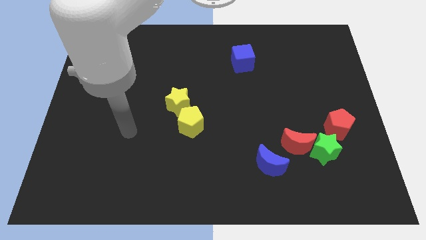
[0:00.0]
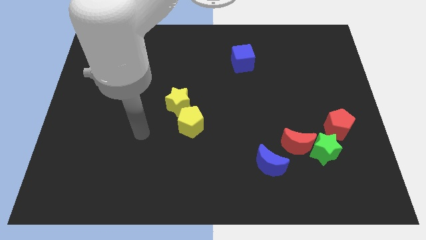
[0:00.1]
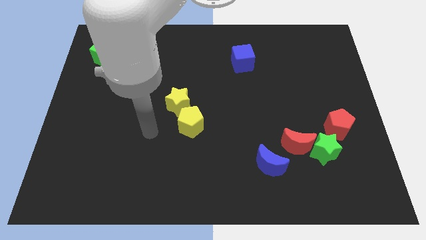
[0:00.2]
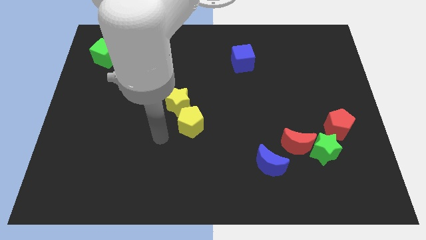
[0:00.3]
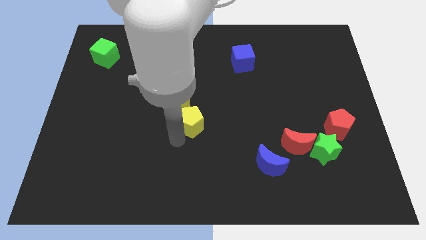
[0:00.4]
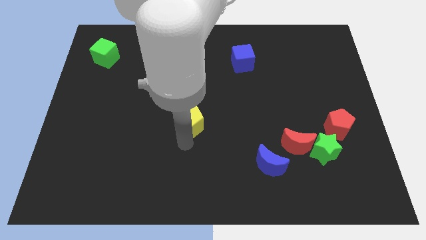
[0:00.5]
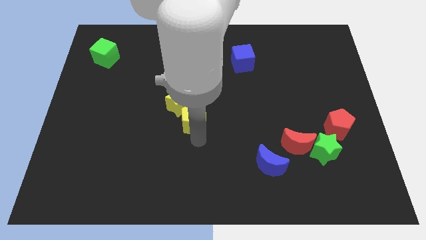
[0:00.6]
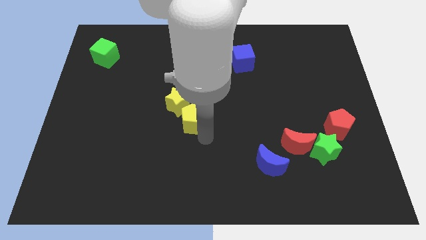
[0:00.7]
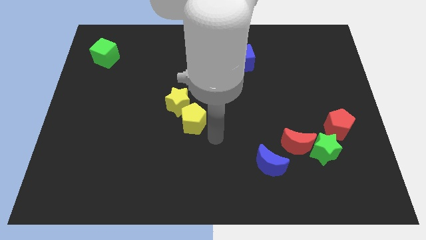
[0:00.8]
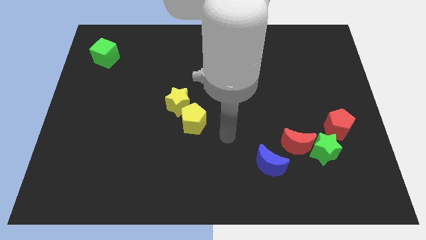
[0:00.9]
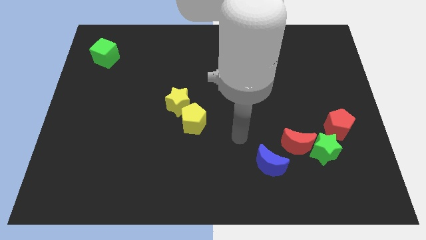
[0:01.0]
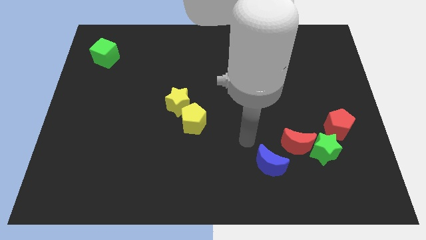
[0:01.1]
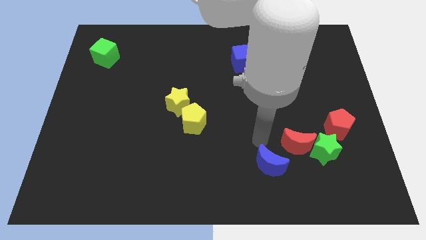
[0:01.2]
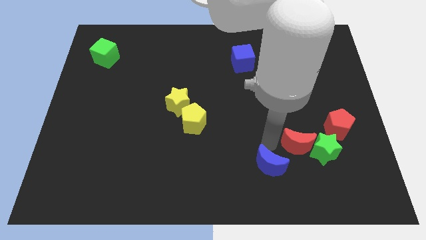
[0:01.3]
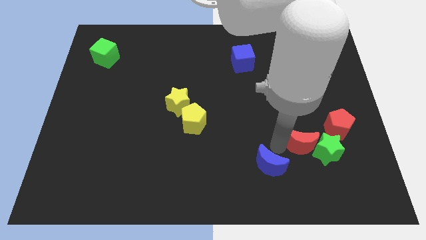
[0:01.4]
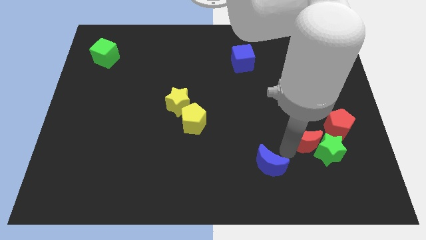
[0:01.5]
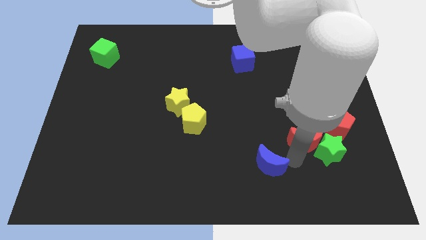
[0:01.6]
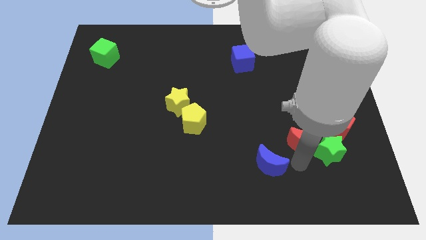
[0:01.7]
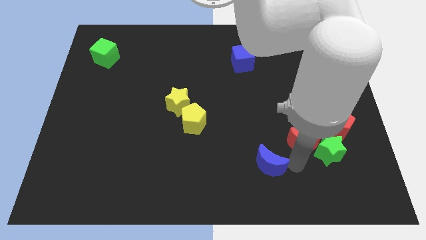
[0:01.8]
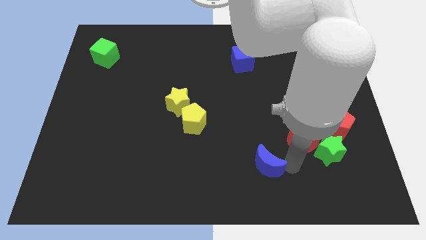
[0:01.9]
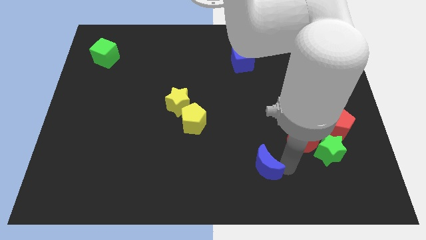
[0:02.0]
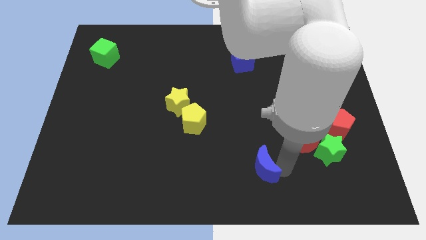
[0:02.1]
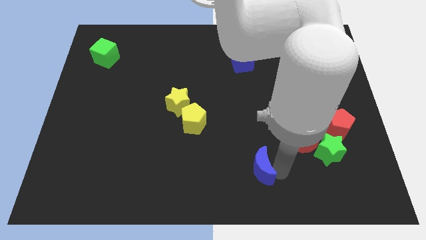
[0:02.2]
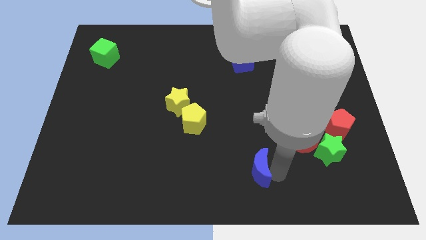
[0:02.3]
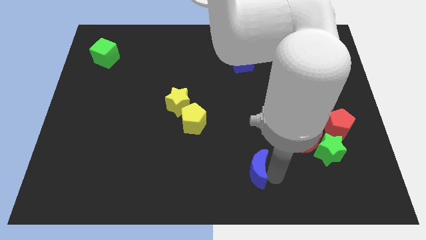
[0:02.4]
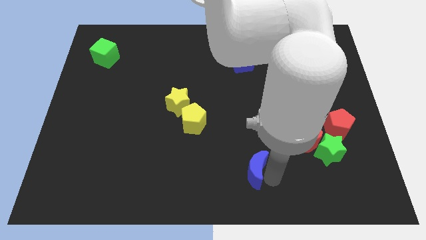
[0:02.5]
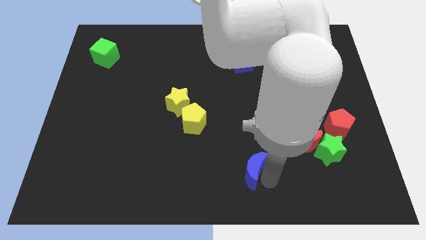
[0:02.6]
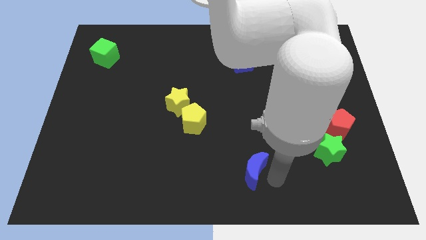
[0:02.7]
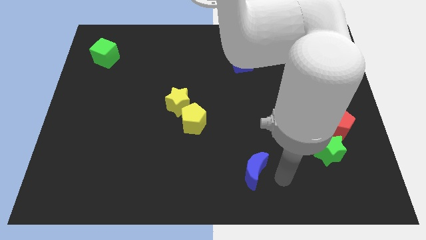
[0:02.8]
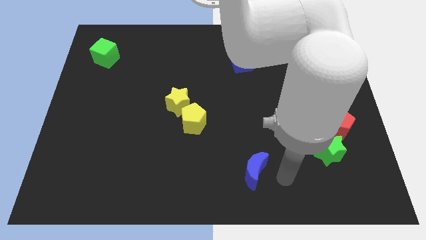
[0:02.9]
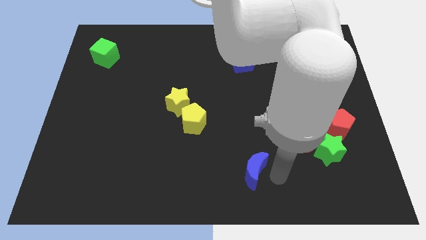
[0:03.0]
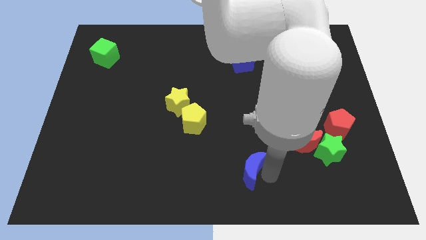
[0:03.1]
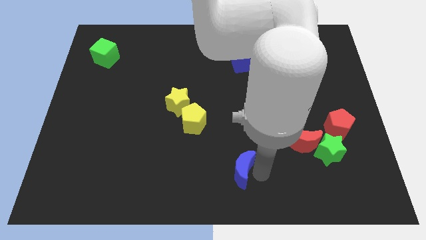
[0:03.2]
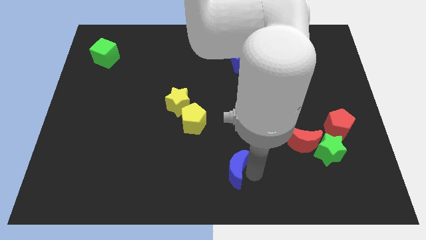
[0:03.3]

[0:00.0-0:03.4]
move the blue moon a bit to the left

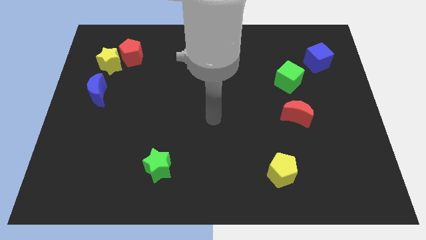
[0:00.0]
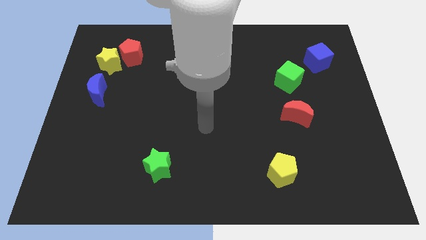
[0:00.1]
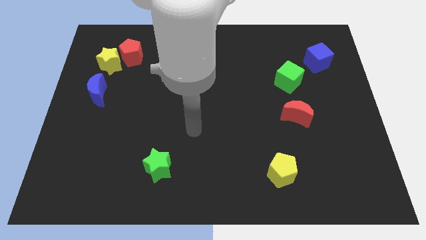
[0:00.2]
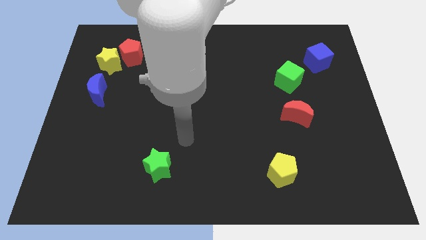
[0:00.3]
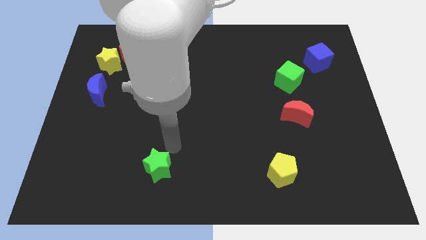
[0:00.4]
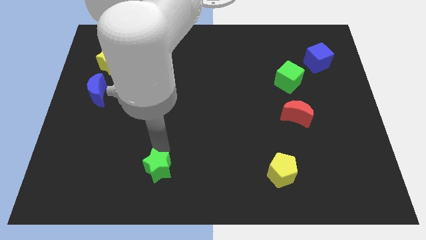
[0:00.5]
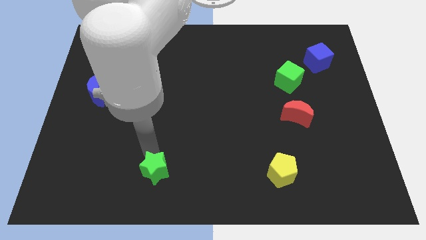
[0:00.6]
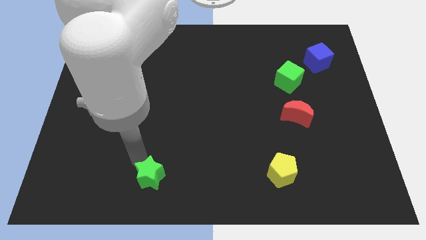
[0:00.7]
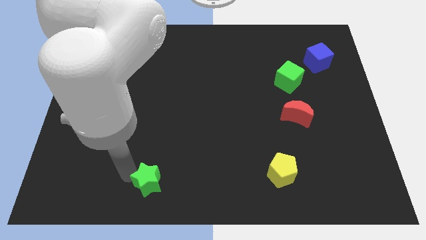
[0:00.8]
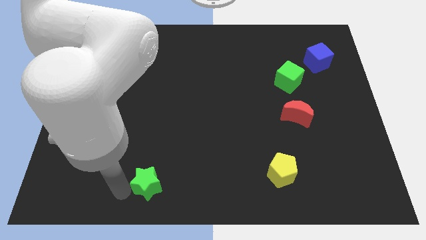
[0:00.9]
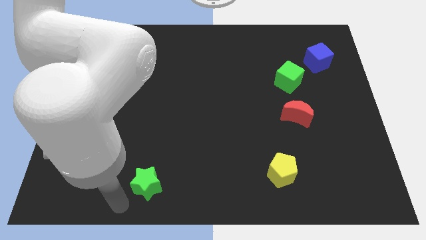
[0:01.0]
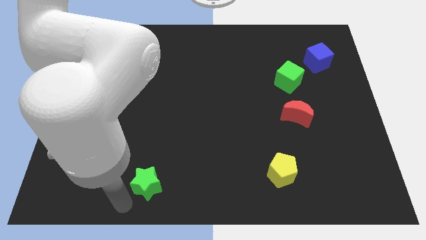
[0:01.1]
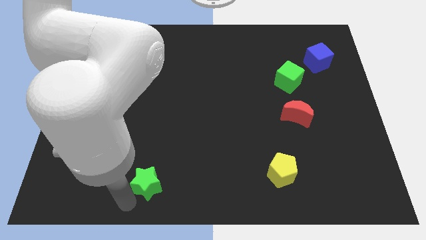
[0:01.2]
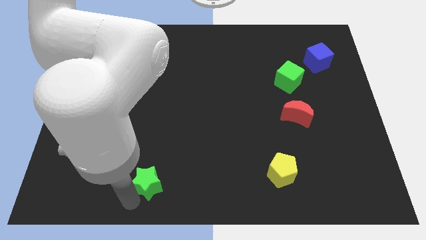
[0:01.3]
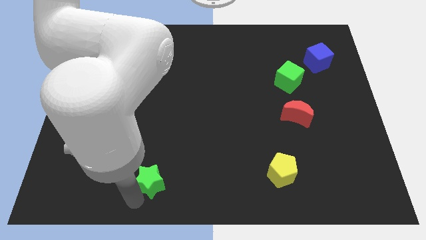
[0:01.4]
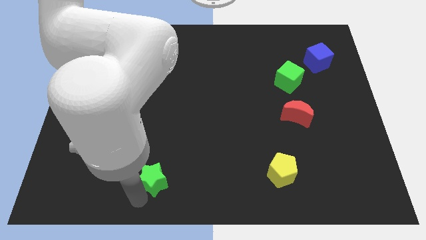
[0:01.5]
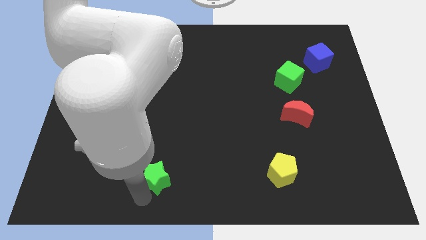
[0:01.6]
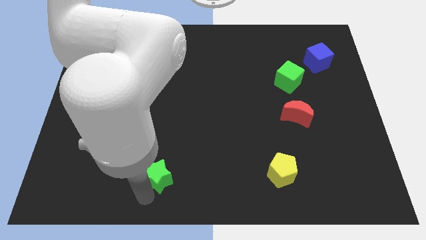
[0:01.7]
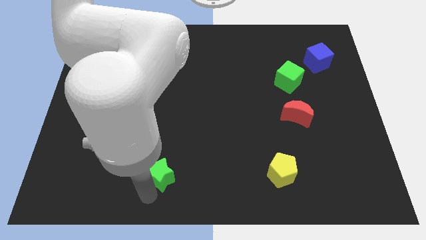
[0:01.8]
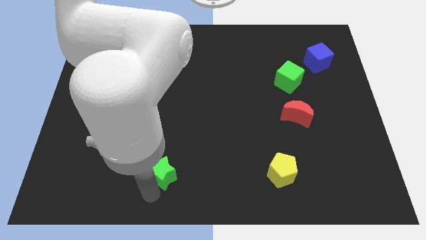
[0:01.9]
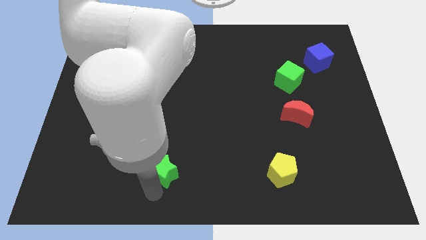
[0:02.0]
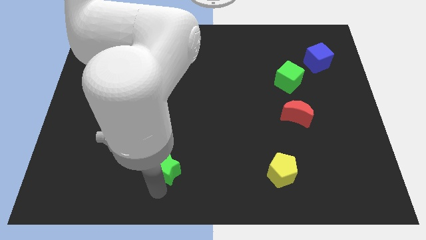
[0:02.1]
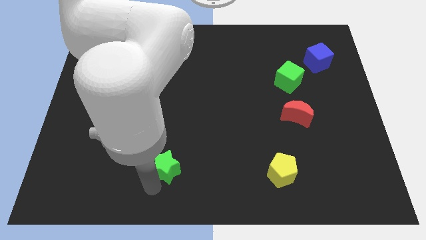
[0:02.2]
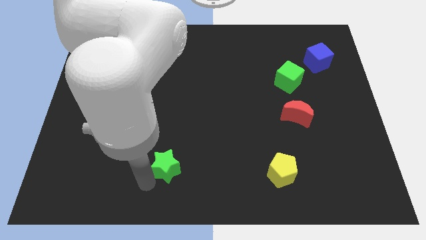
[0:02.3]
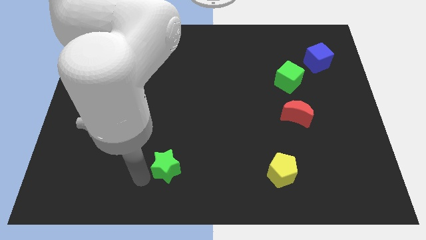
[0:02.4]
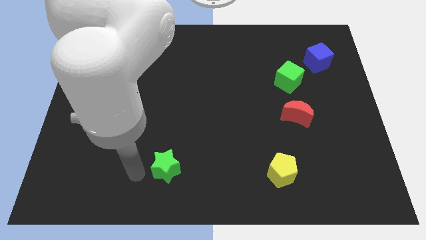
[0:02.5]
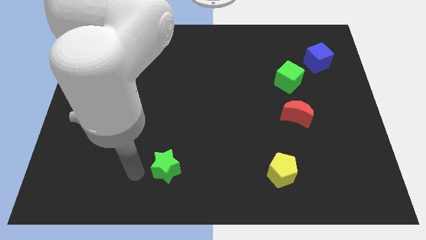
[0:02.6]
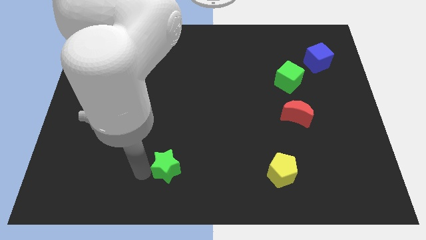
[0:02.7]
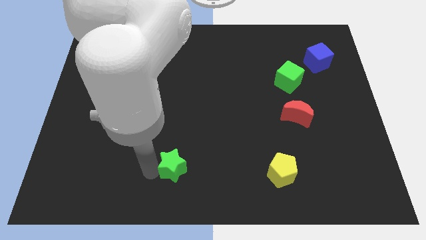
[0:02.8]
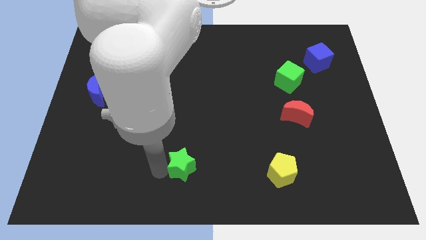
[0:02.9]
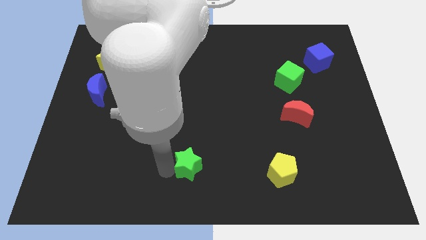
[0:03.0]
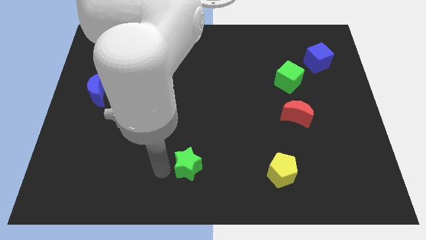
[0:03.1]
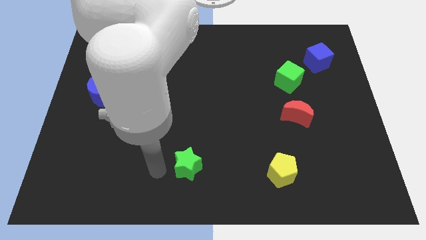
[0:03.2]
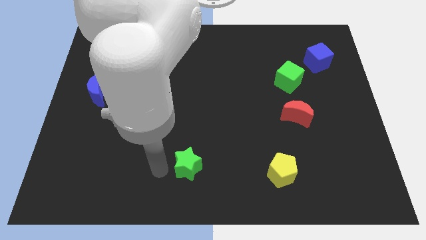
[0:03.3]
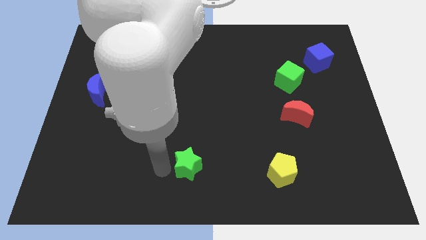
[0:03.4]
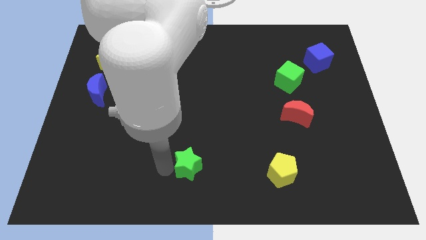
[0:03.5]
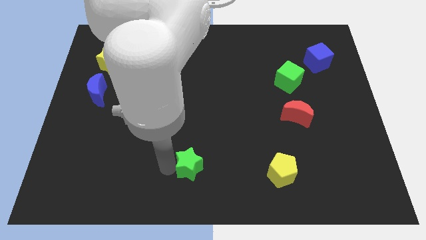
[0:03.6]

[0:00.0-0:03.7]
slide the green star a little bit to the right

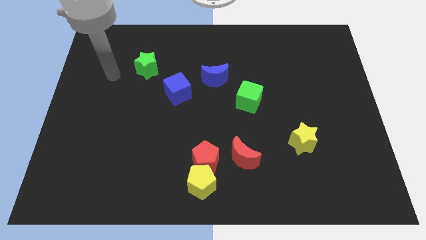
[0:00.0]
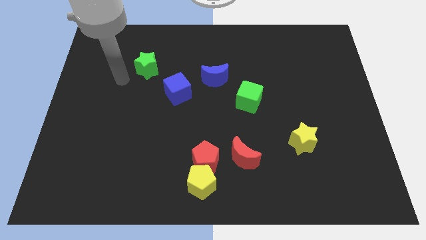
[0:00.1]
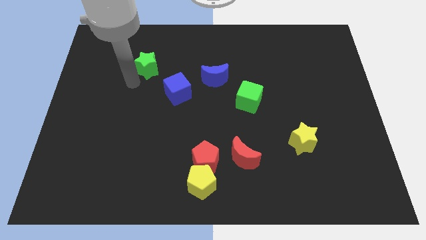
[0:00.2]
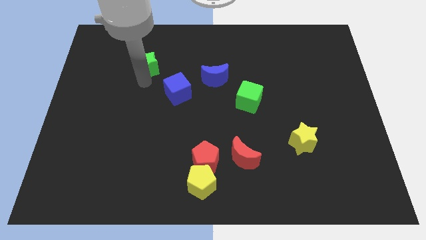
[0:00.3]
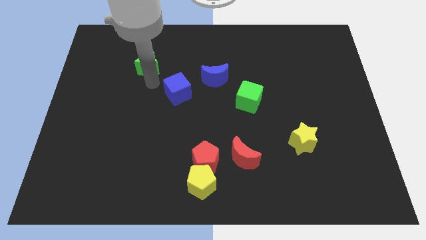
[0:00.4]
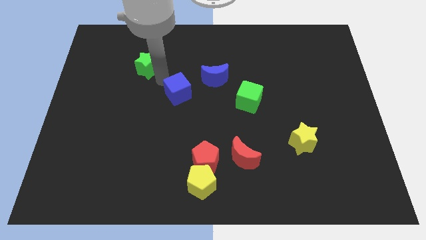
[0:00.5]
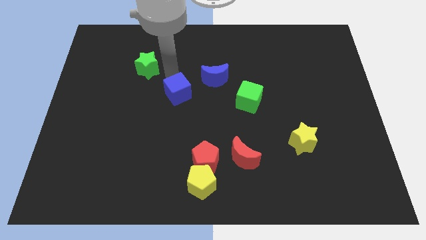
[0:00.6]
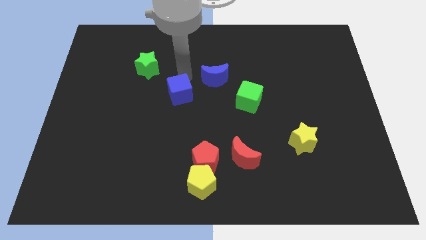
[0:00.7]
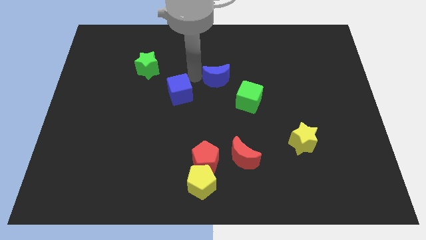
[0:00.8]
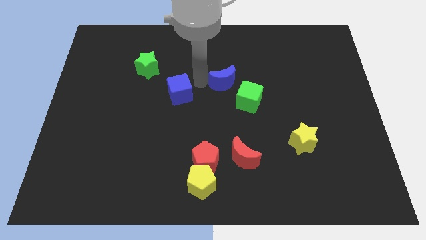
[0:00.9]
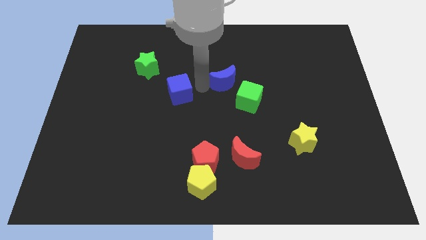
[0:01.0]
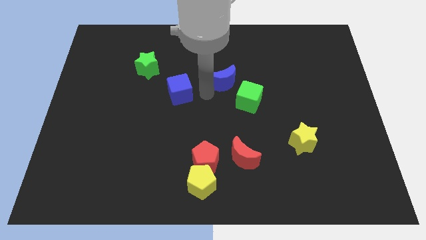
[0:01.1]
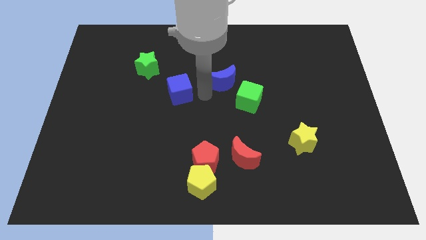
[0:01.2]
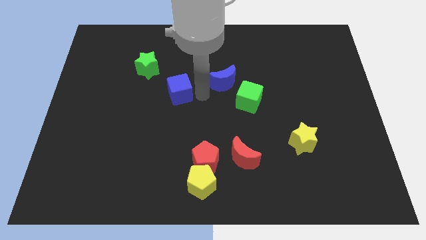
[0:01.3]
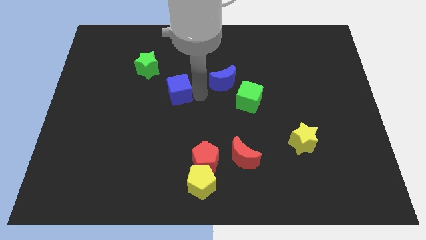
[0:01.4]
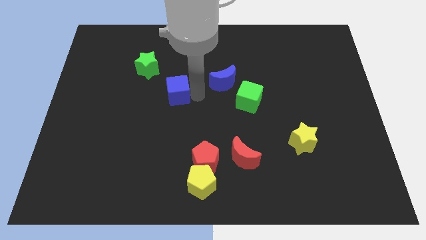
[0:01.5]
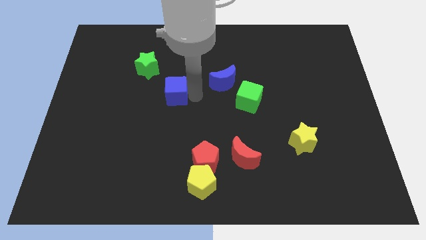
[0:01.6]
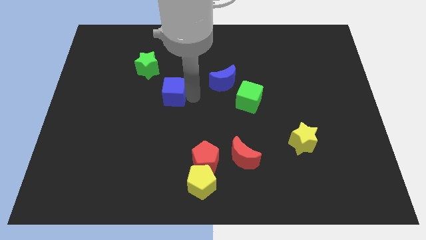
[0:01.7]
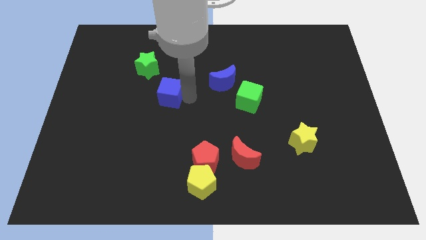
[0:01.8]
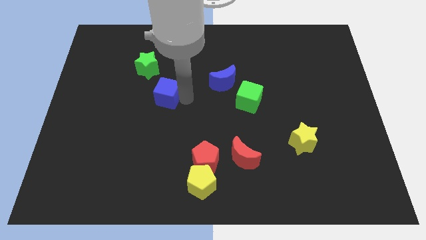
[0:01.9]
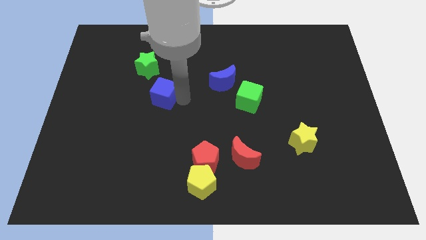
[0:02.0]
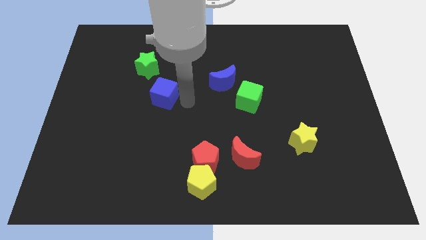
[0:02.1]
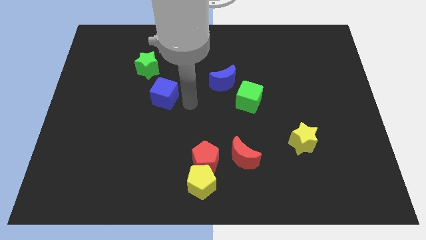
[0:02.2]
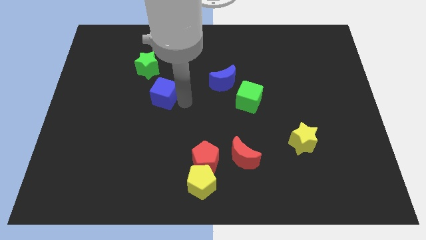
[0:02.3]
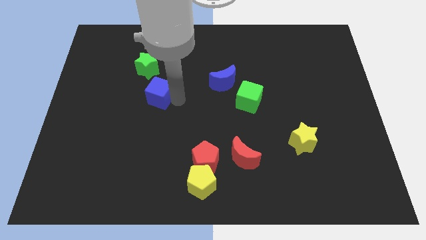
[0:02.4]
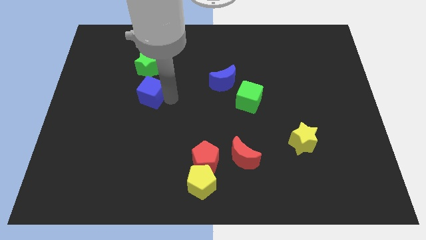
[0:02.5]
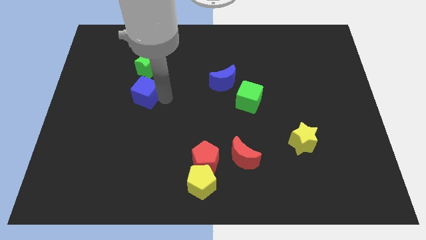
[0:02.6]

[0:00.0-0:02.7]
slightly push the blue cube left
